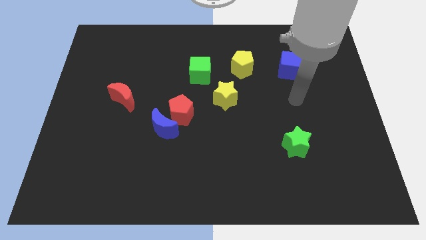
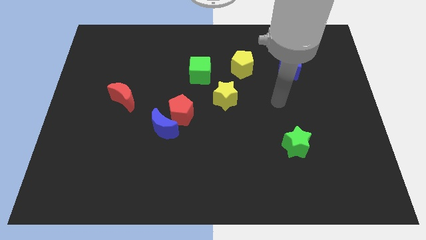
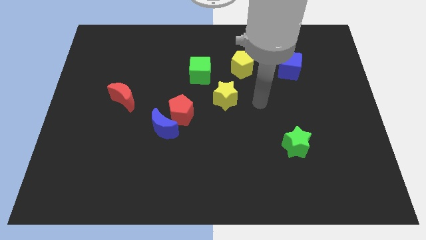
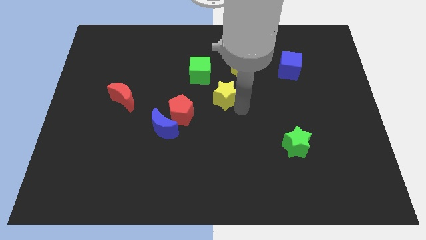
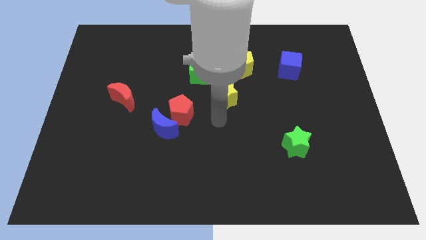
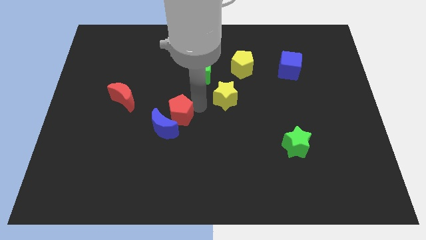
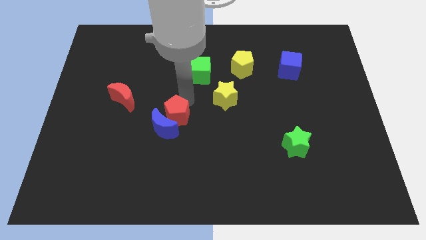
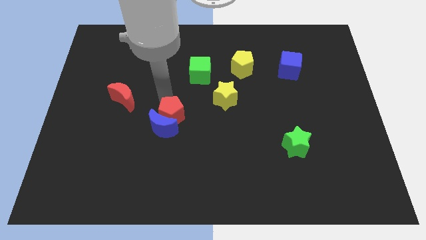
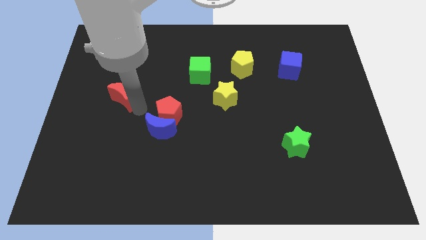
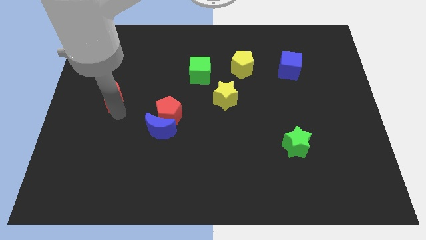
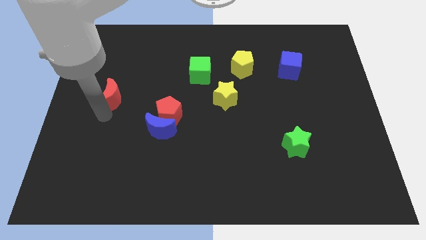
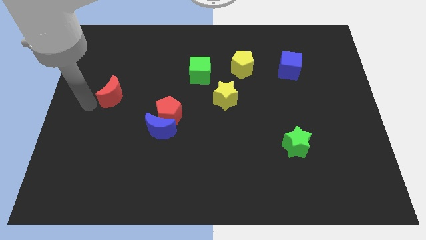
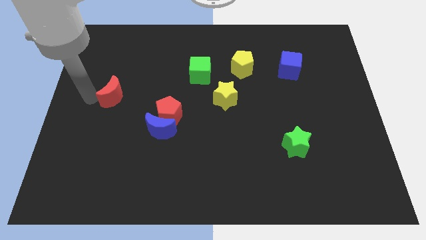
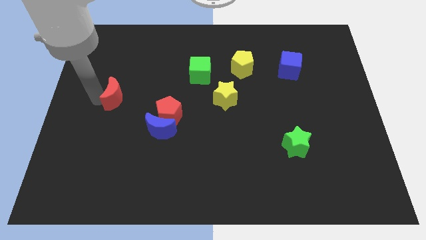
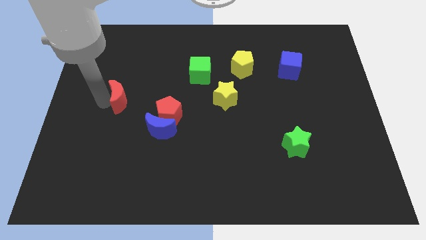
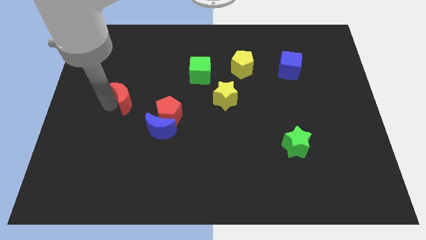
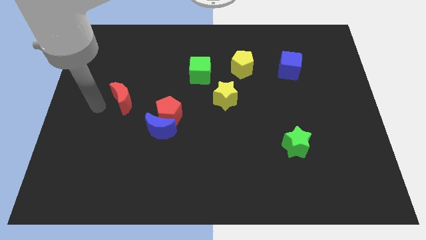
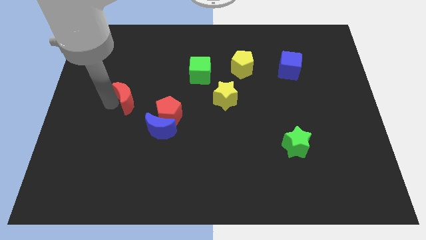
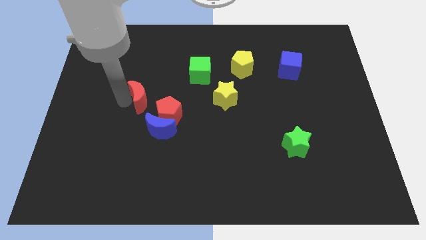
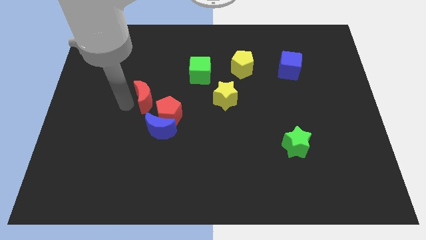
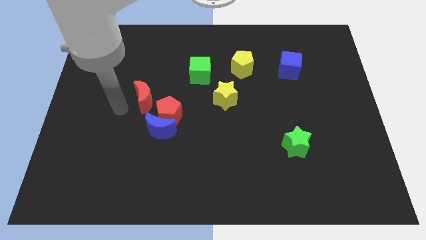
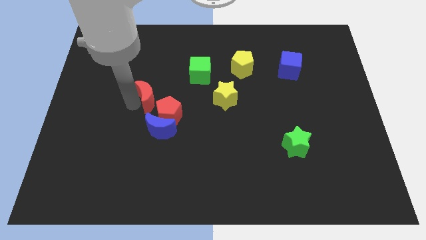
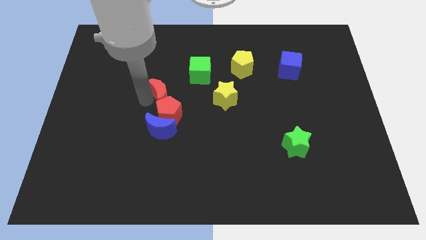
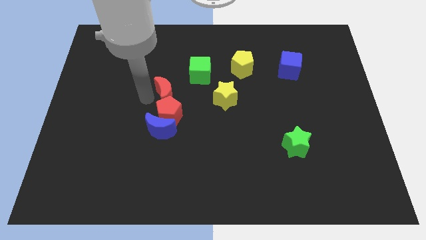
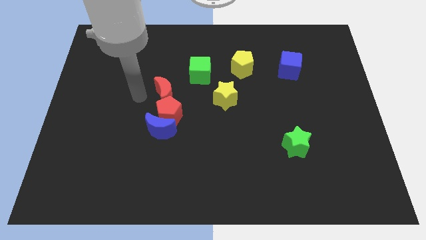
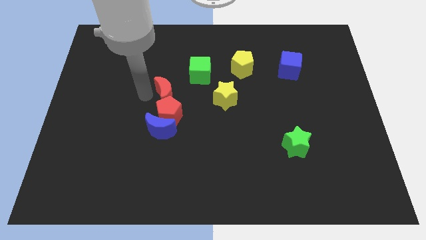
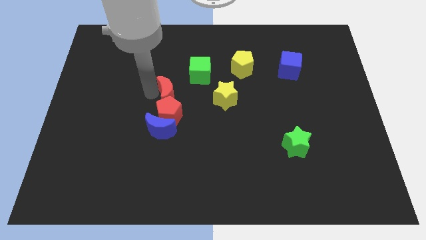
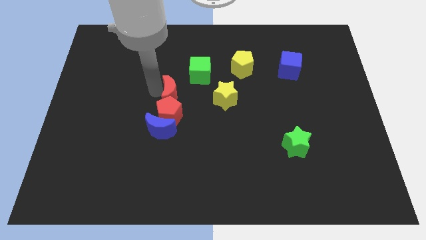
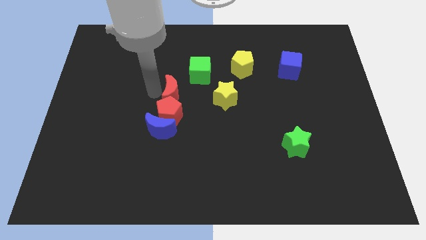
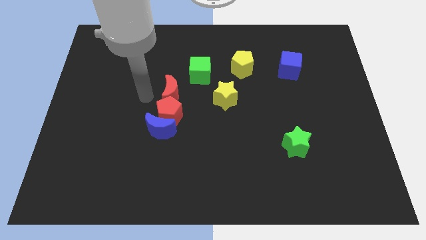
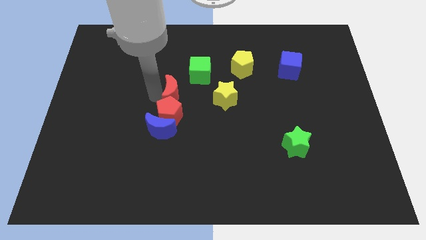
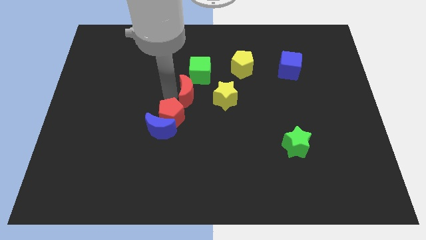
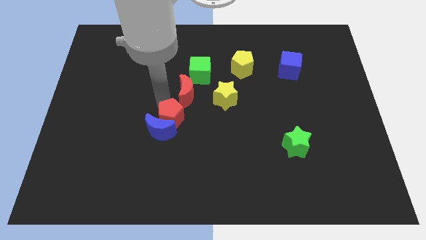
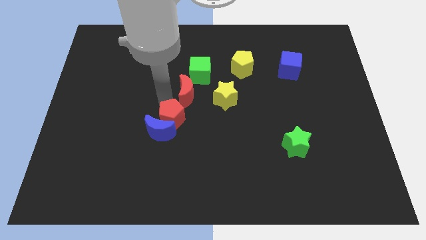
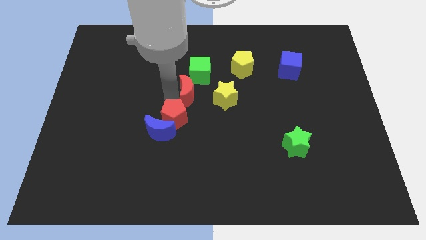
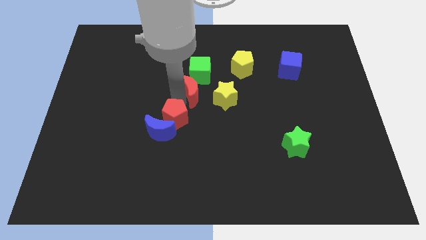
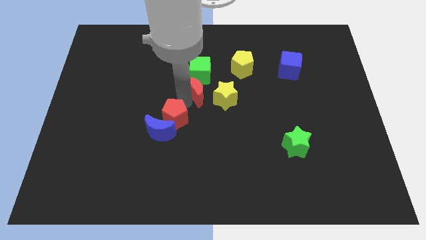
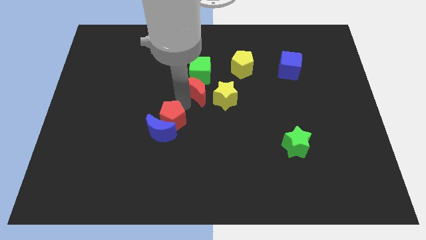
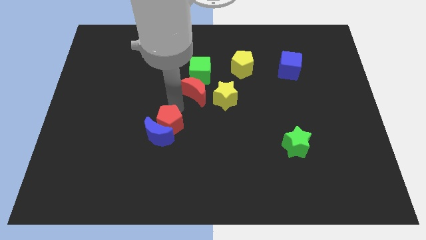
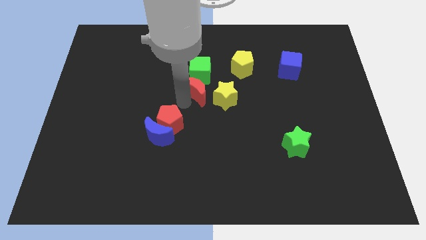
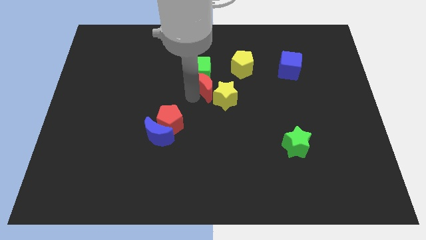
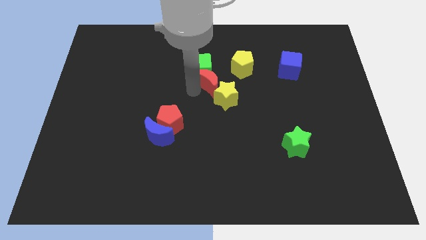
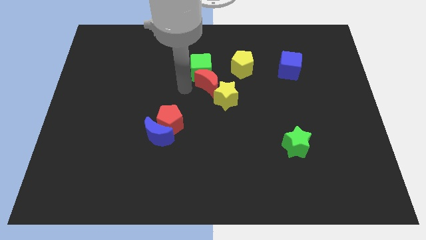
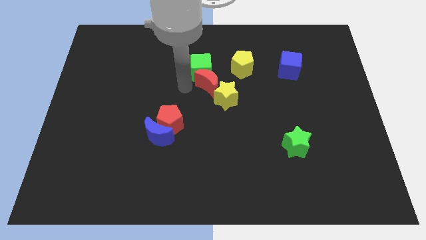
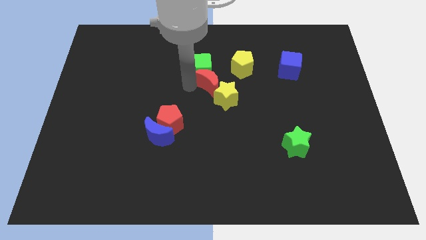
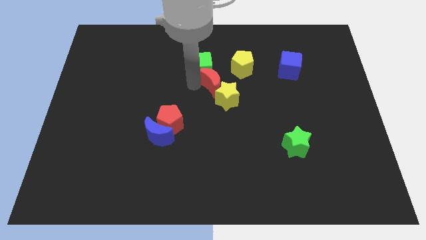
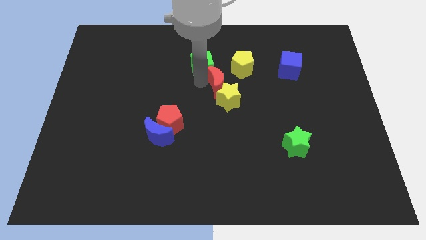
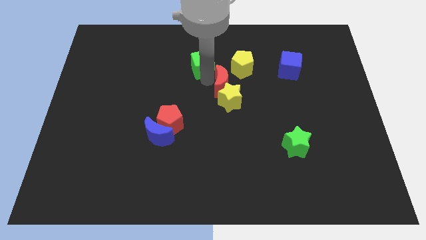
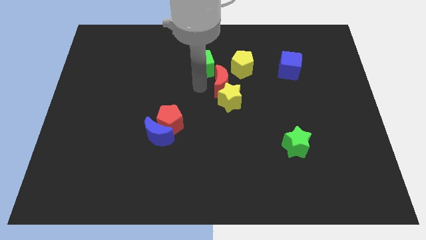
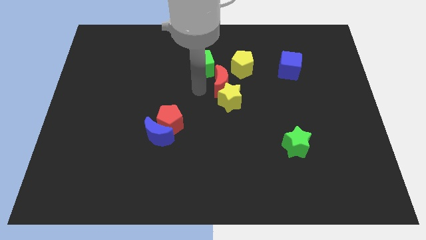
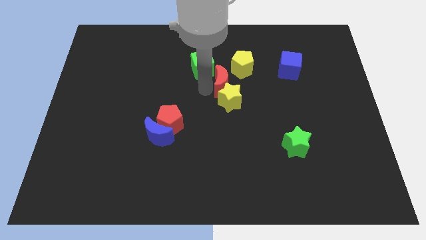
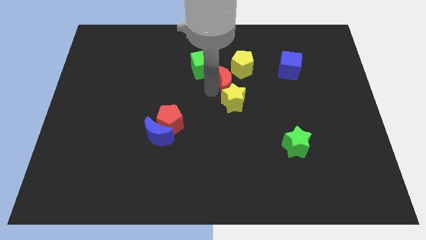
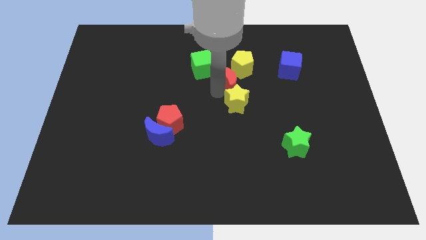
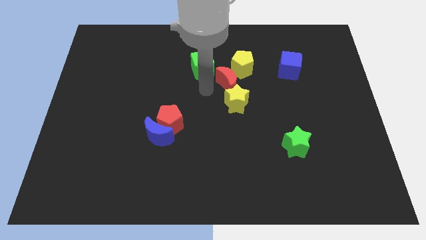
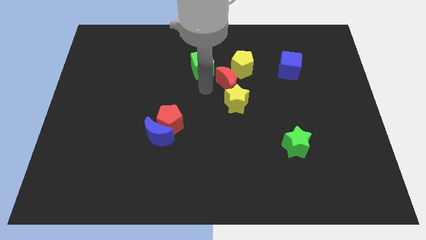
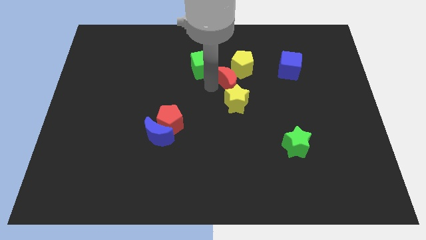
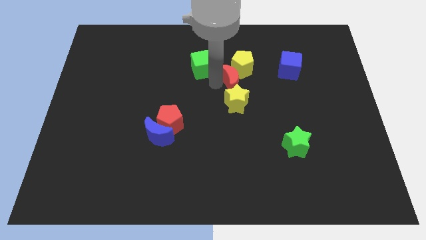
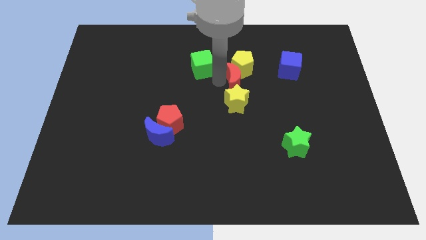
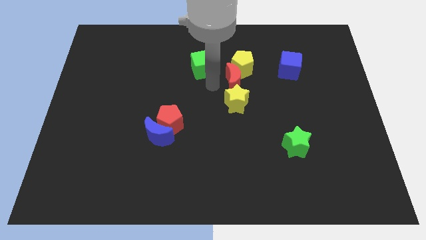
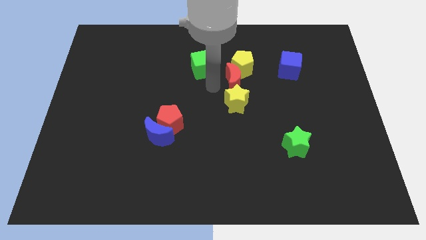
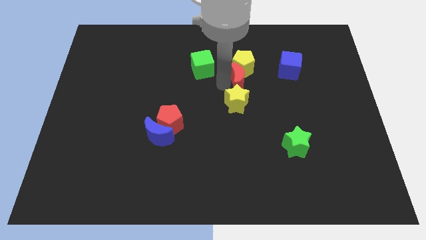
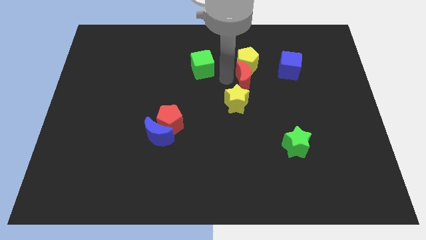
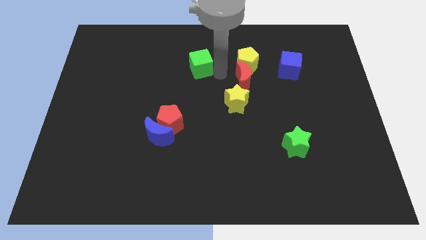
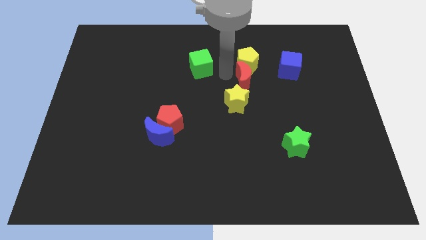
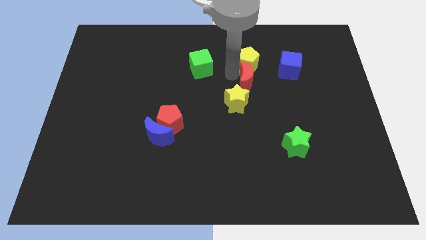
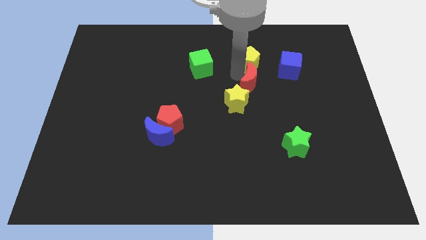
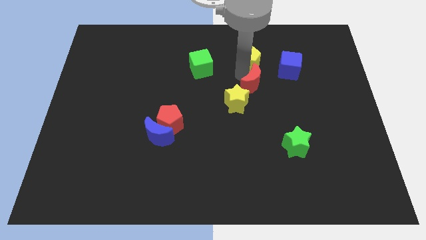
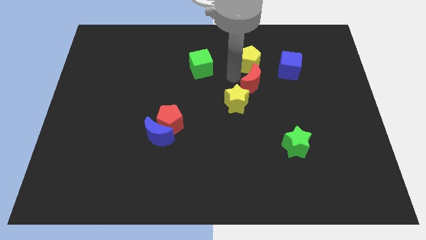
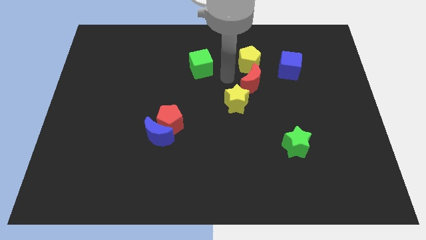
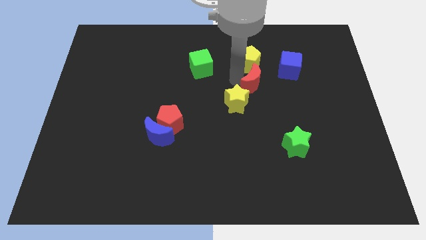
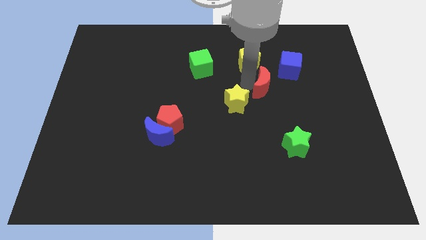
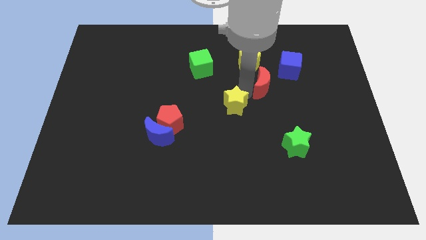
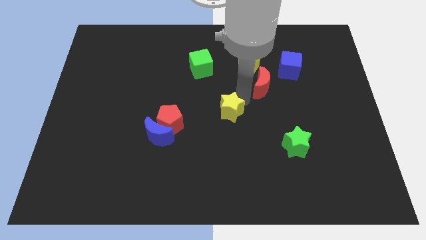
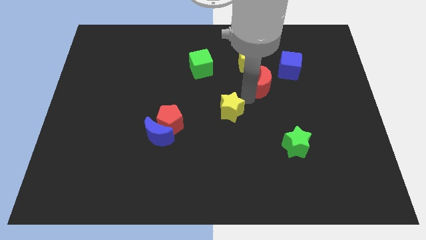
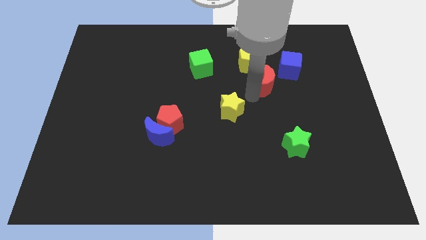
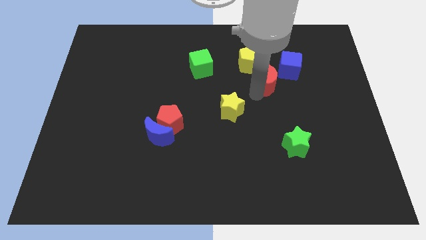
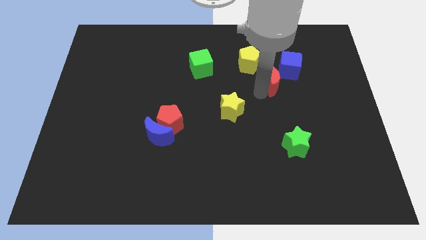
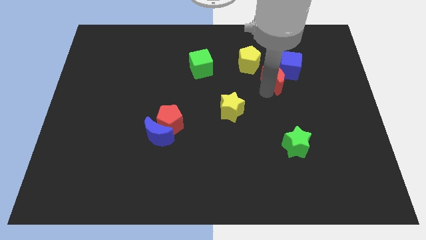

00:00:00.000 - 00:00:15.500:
push the red moon towards the blue cube
